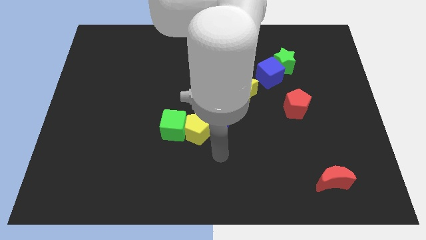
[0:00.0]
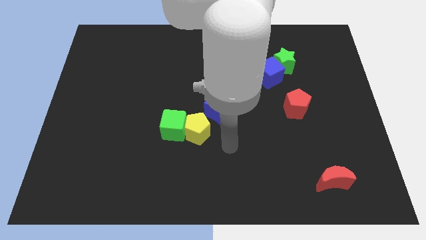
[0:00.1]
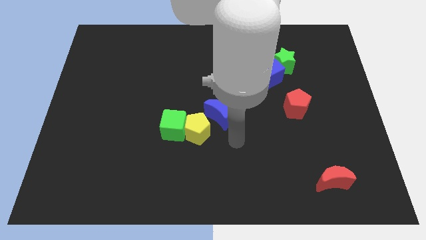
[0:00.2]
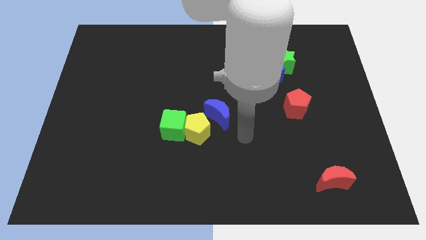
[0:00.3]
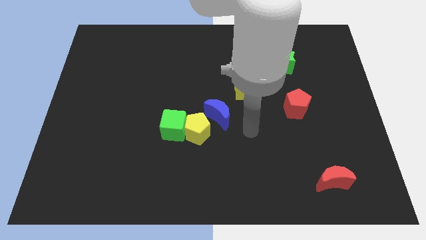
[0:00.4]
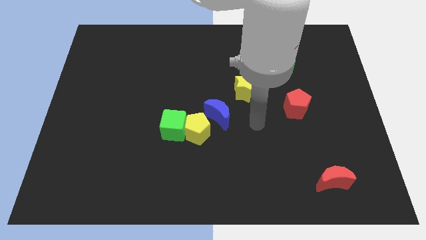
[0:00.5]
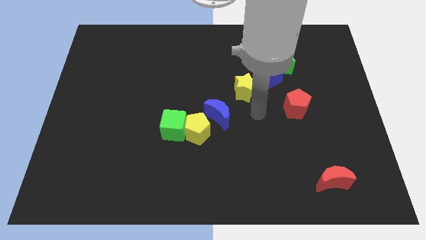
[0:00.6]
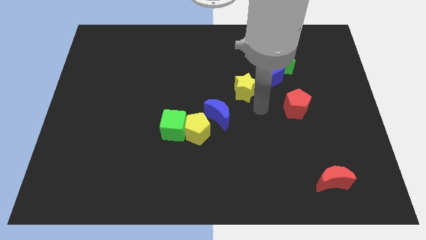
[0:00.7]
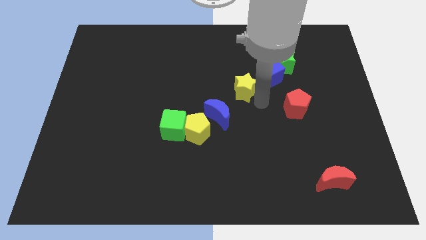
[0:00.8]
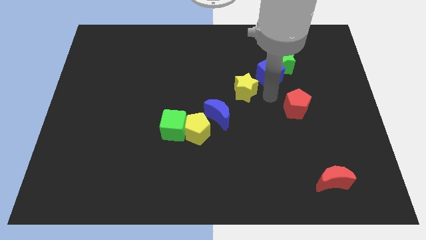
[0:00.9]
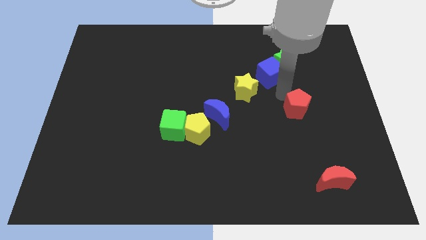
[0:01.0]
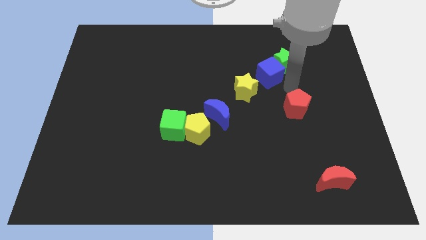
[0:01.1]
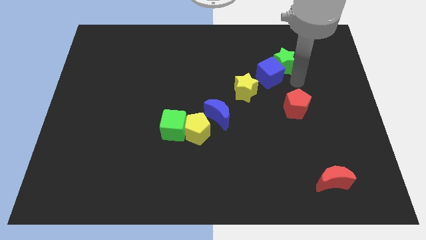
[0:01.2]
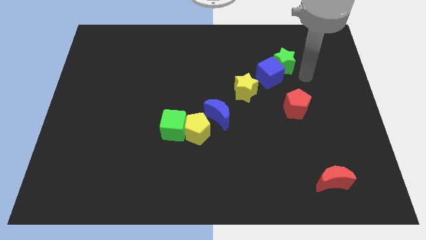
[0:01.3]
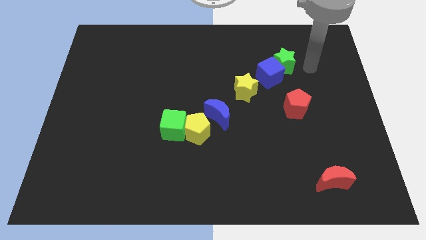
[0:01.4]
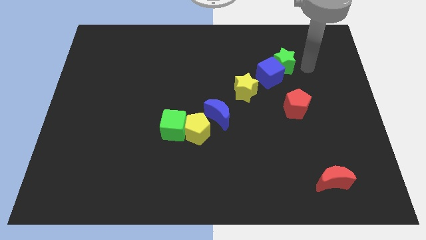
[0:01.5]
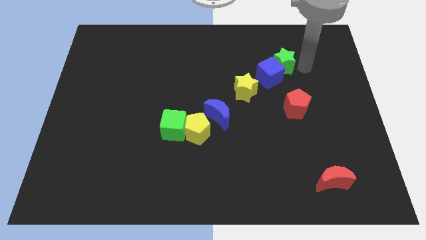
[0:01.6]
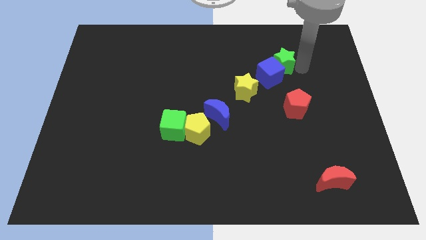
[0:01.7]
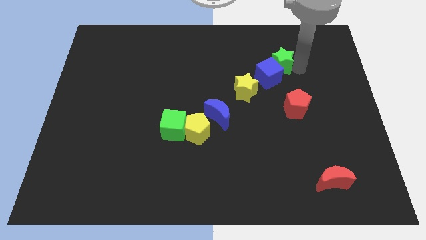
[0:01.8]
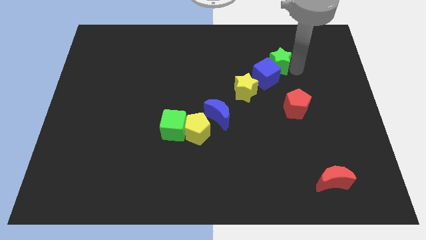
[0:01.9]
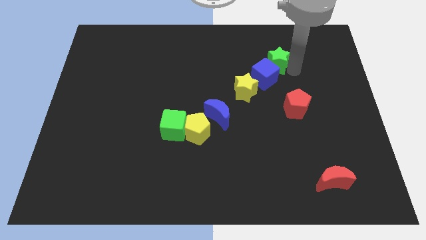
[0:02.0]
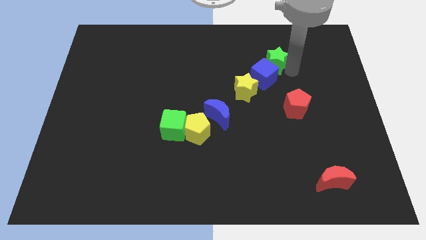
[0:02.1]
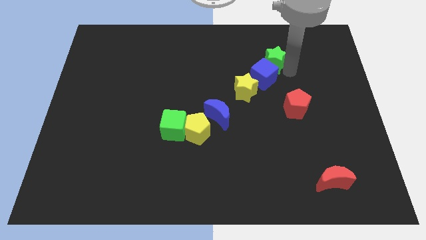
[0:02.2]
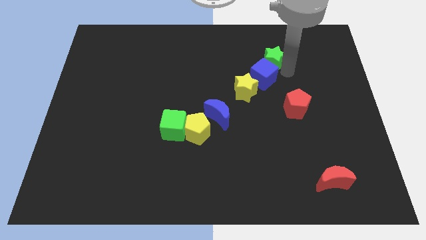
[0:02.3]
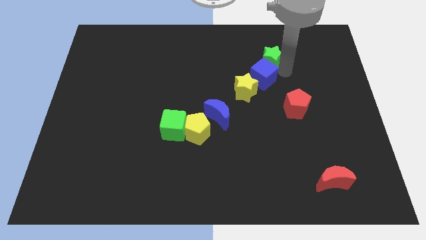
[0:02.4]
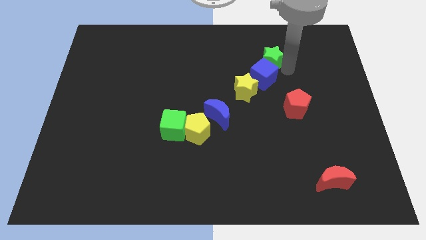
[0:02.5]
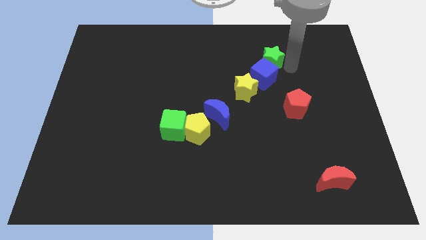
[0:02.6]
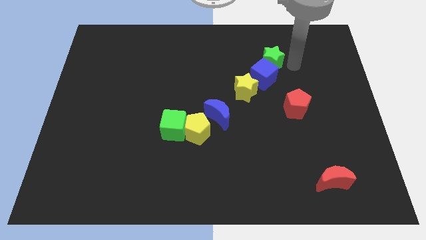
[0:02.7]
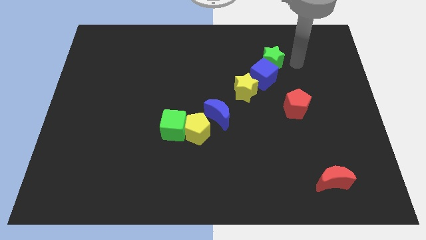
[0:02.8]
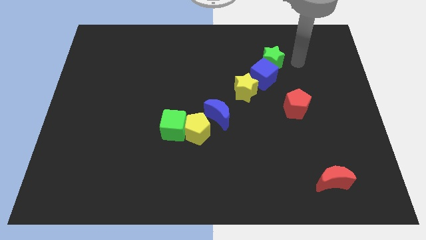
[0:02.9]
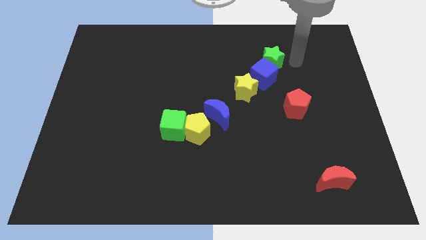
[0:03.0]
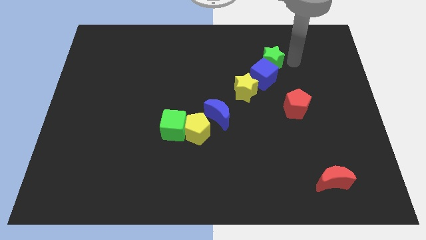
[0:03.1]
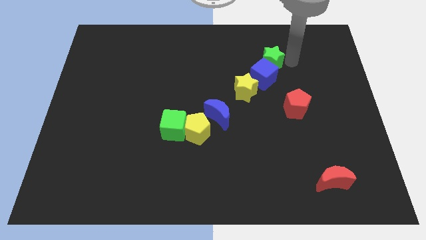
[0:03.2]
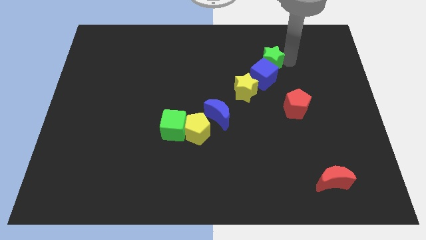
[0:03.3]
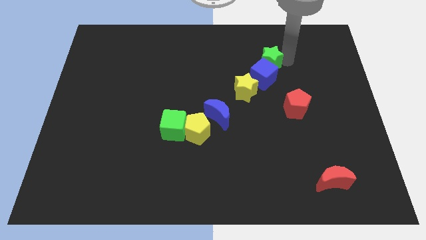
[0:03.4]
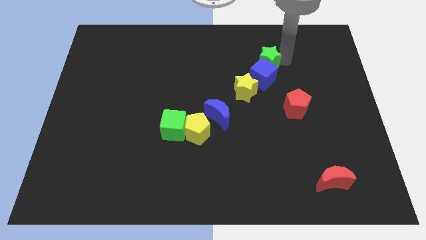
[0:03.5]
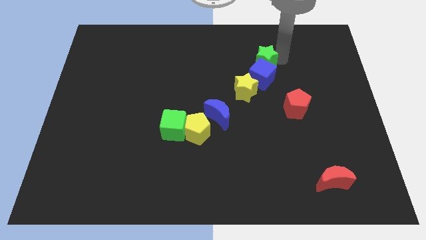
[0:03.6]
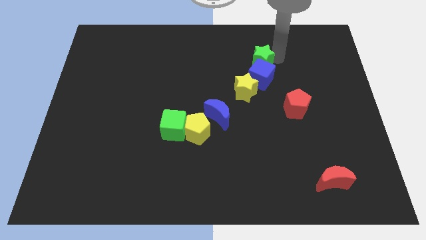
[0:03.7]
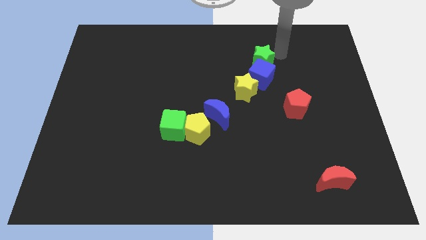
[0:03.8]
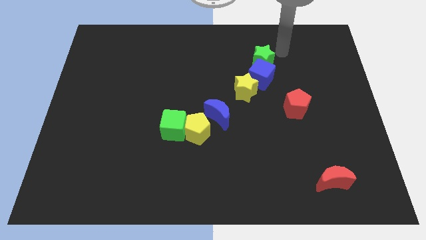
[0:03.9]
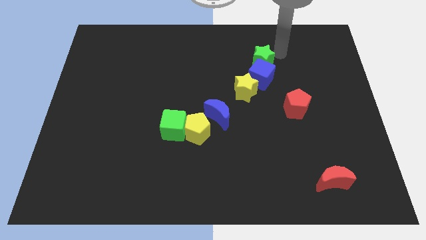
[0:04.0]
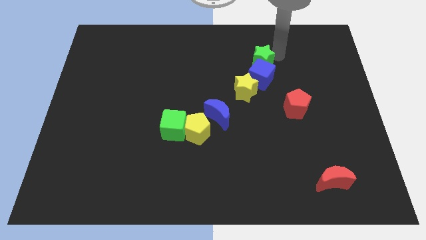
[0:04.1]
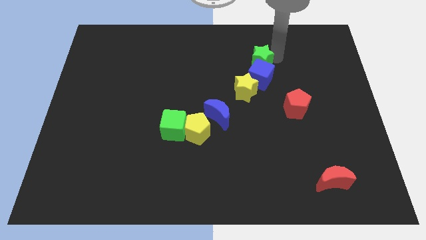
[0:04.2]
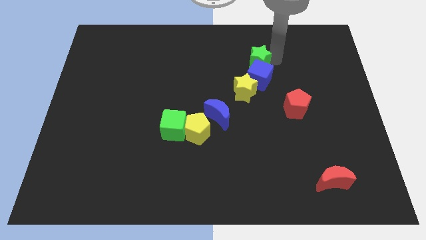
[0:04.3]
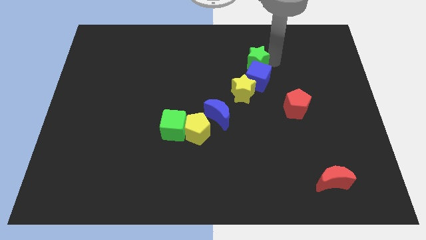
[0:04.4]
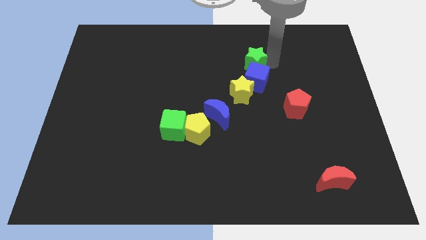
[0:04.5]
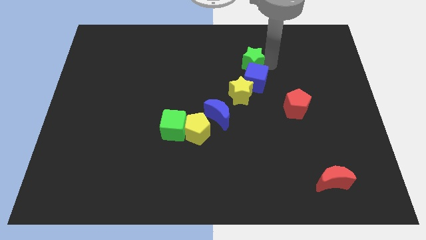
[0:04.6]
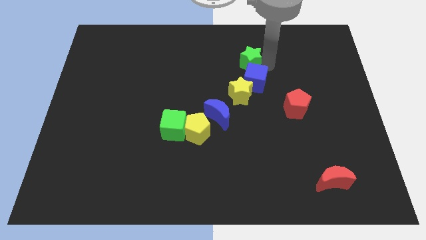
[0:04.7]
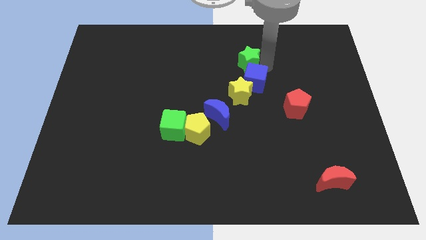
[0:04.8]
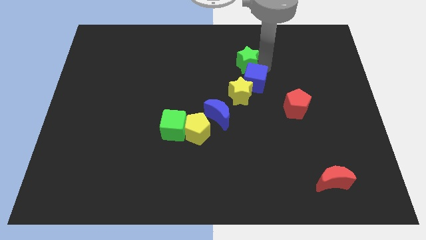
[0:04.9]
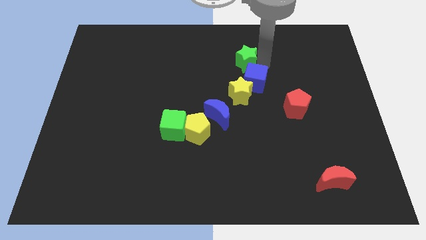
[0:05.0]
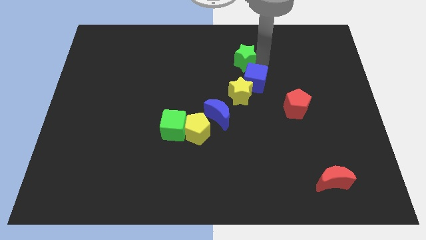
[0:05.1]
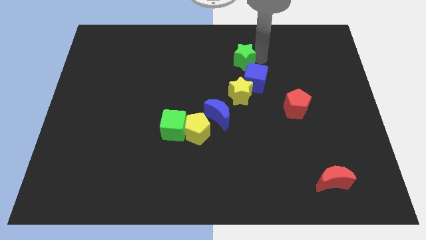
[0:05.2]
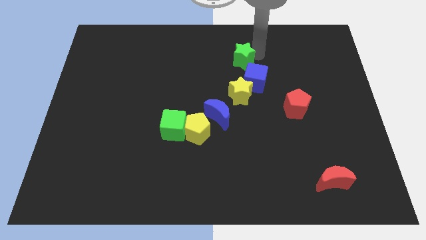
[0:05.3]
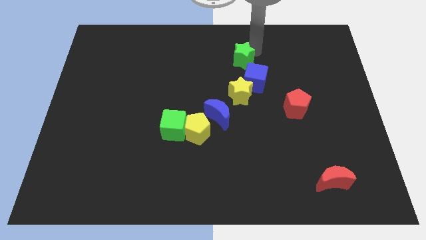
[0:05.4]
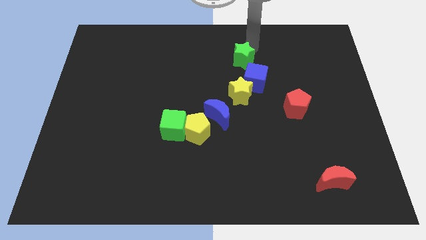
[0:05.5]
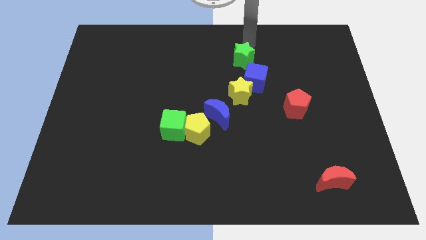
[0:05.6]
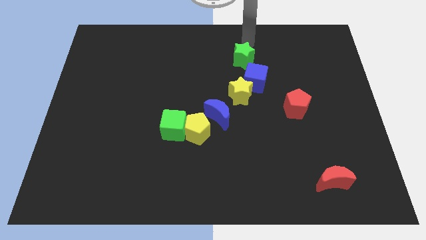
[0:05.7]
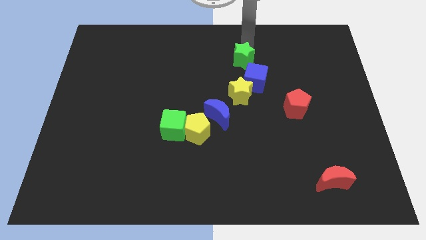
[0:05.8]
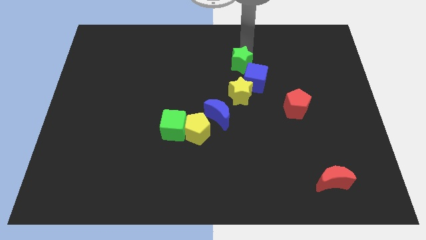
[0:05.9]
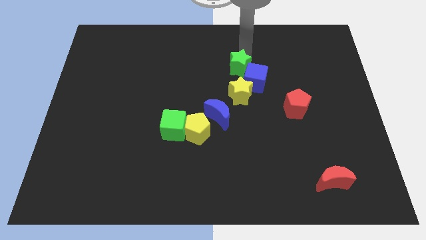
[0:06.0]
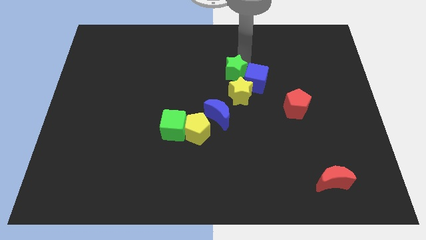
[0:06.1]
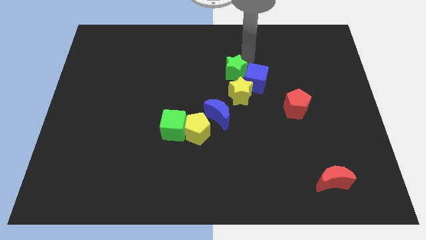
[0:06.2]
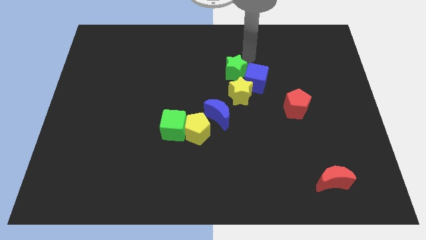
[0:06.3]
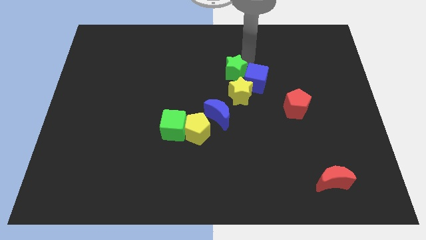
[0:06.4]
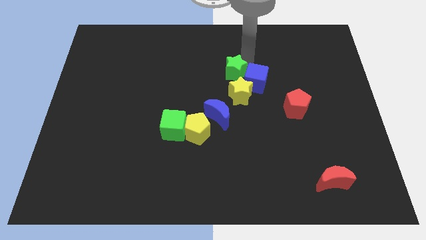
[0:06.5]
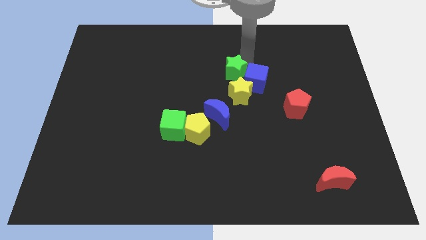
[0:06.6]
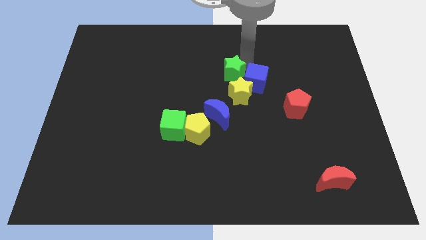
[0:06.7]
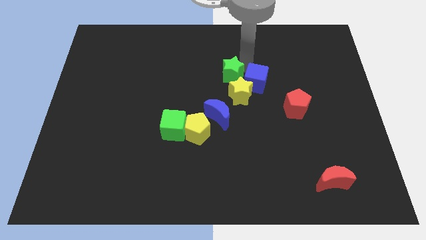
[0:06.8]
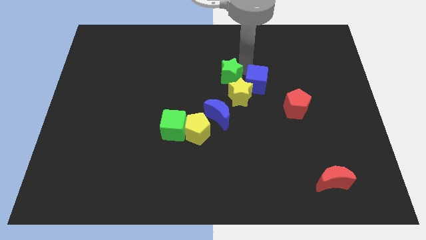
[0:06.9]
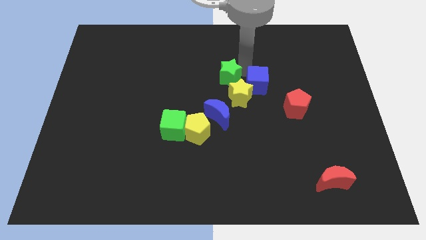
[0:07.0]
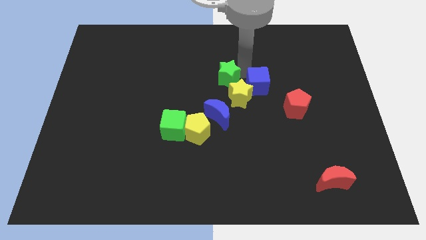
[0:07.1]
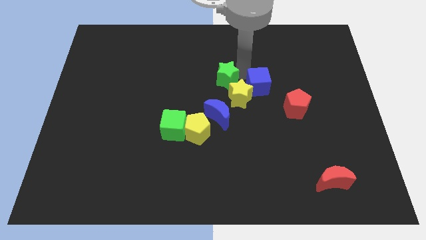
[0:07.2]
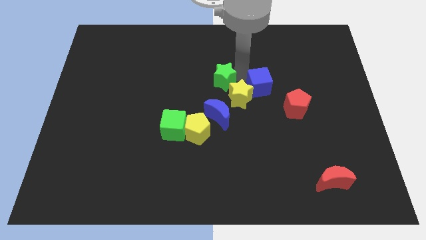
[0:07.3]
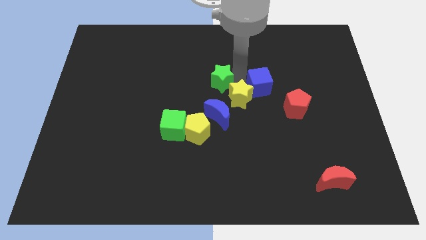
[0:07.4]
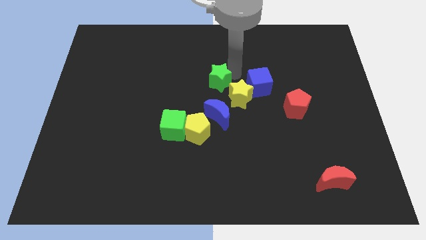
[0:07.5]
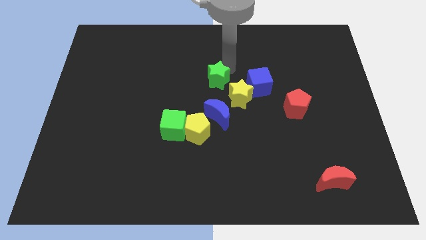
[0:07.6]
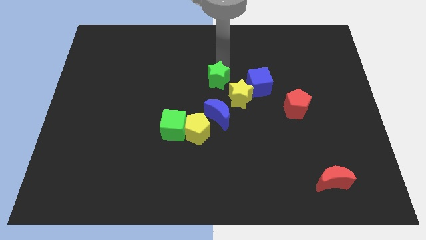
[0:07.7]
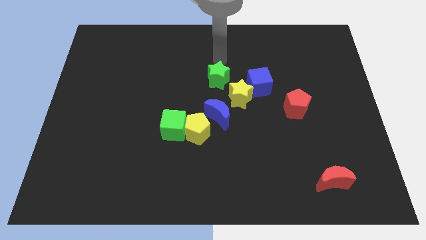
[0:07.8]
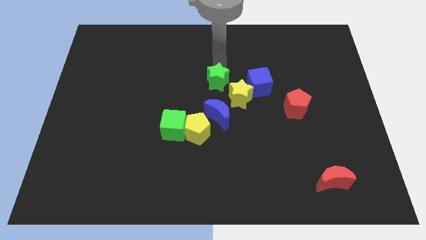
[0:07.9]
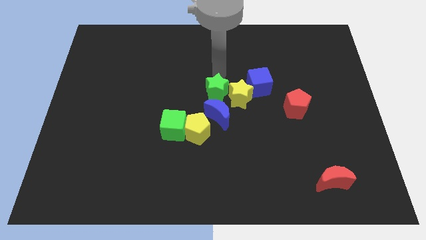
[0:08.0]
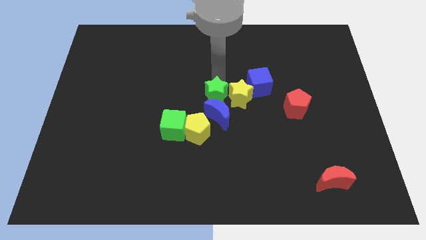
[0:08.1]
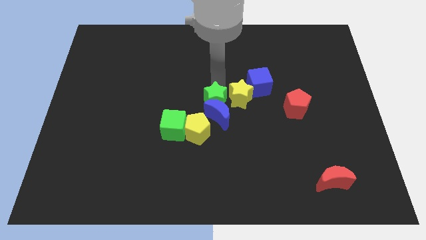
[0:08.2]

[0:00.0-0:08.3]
push the green star to the blue moon
